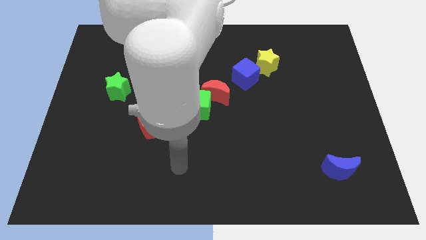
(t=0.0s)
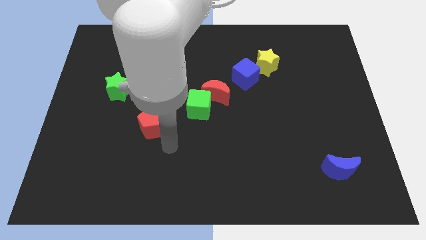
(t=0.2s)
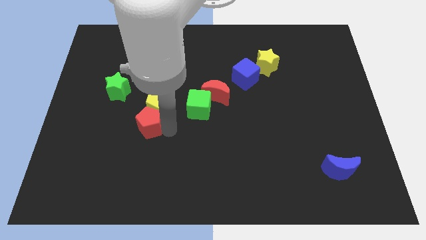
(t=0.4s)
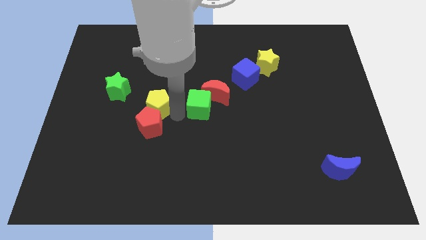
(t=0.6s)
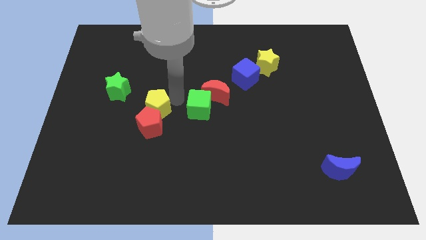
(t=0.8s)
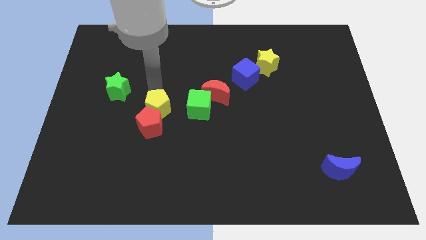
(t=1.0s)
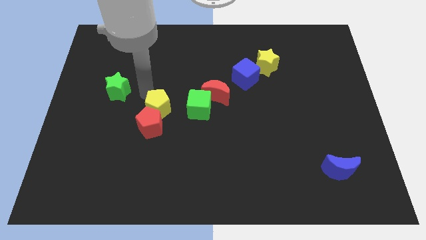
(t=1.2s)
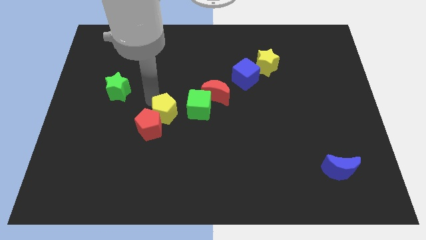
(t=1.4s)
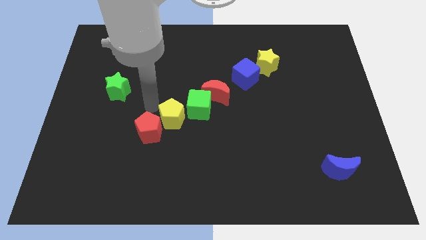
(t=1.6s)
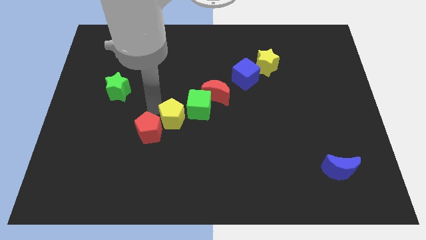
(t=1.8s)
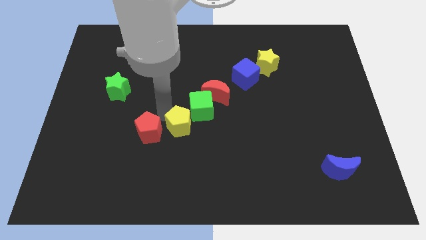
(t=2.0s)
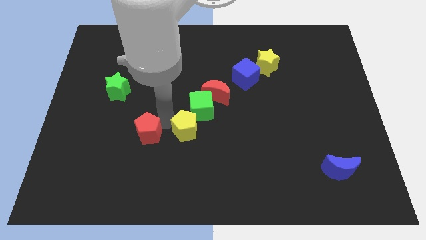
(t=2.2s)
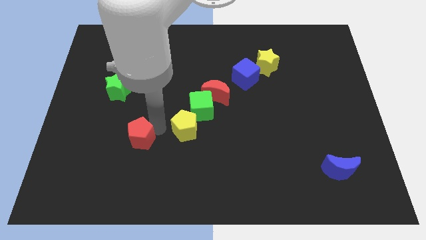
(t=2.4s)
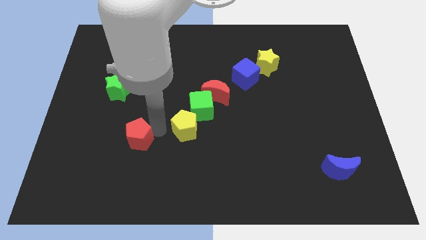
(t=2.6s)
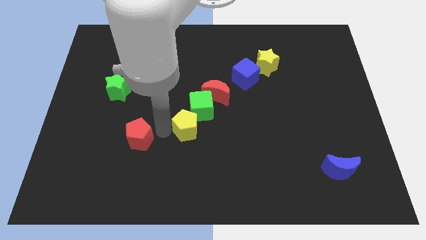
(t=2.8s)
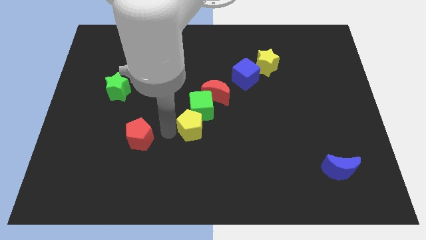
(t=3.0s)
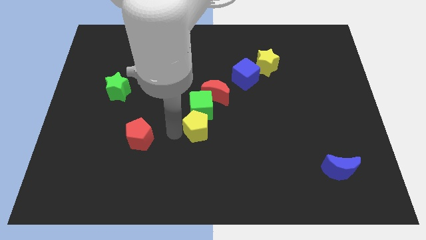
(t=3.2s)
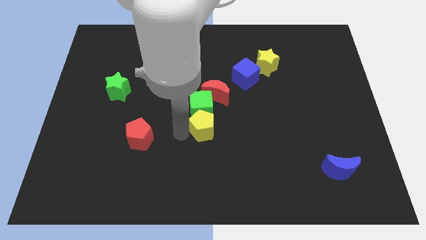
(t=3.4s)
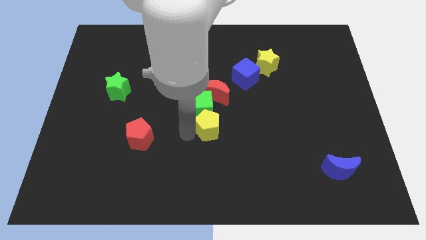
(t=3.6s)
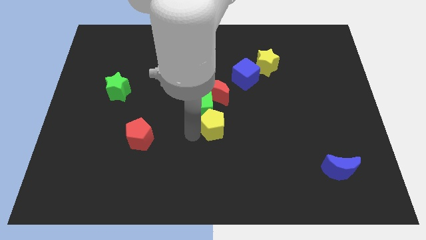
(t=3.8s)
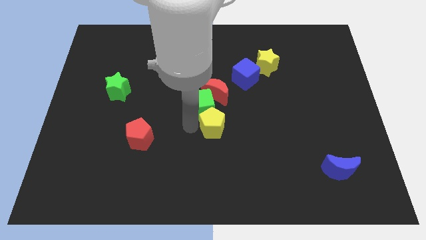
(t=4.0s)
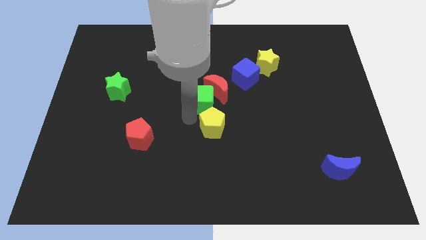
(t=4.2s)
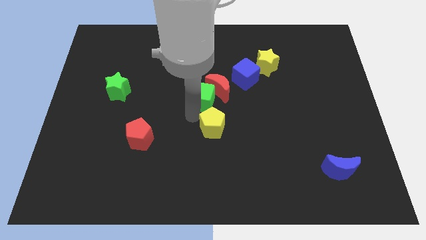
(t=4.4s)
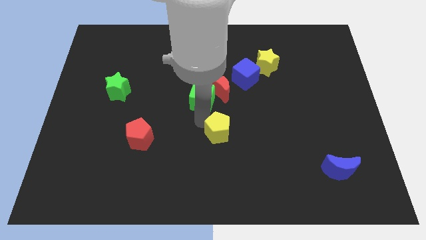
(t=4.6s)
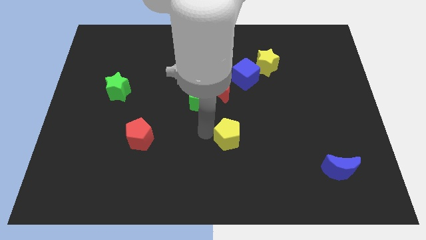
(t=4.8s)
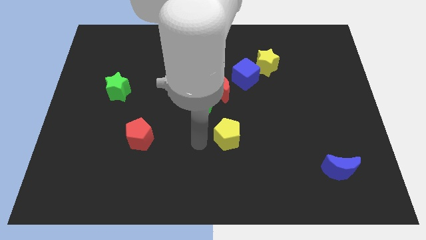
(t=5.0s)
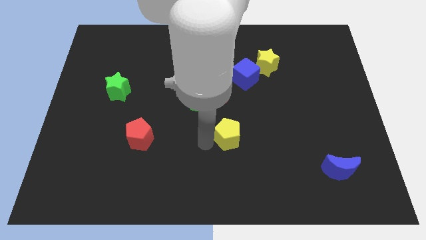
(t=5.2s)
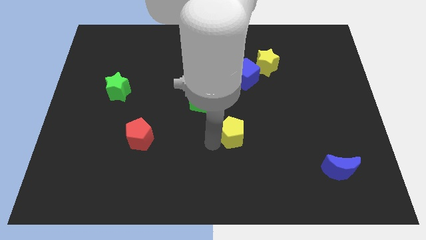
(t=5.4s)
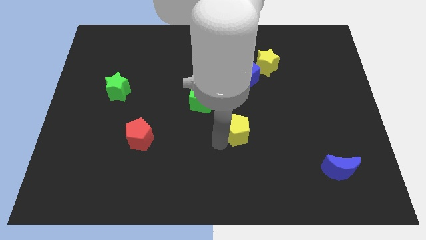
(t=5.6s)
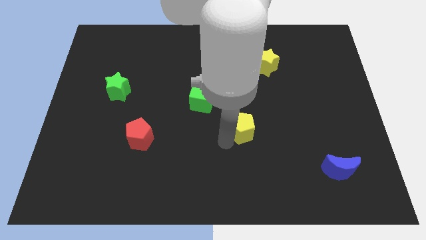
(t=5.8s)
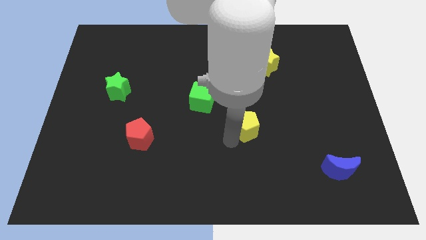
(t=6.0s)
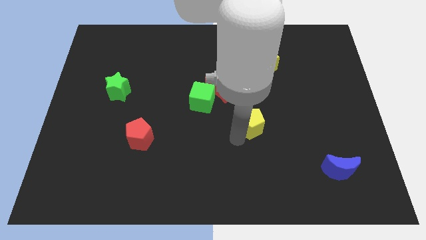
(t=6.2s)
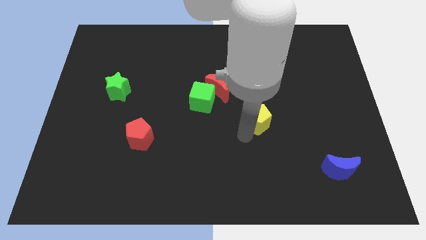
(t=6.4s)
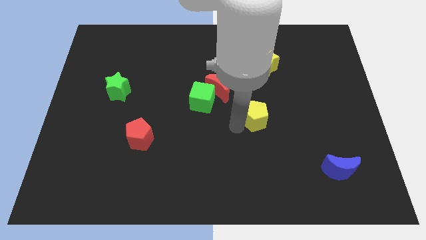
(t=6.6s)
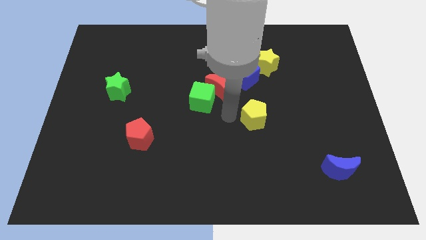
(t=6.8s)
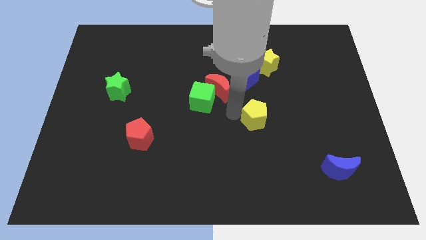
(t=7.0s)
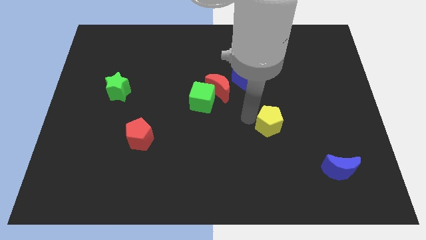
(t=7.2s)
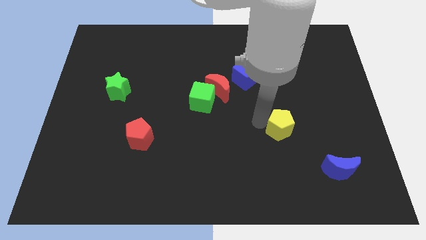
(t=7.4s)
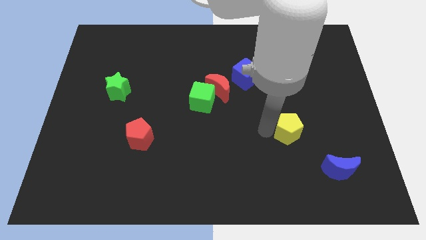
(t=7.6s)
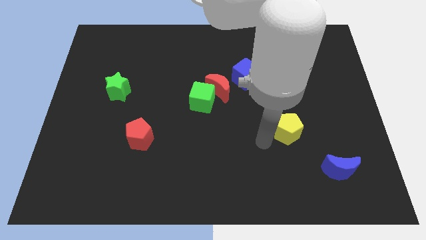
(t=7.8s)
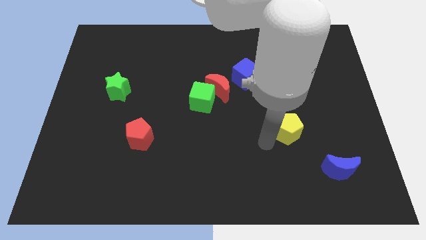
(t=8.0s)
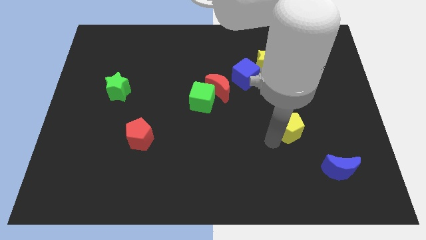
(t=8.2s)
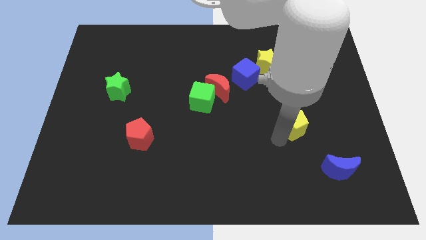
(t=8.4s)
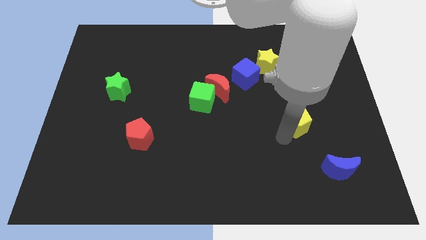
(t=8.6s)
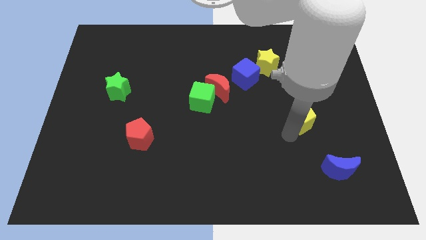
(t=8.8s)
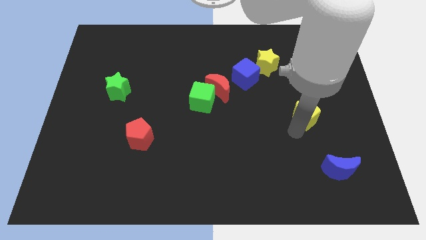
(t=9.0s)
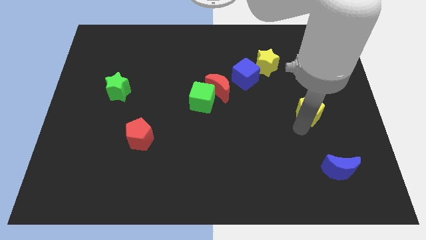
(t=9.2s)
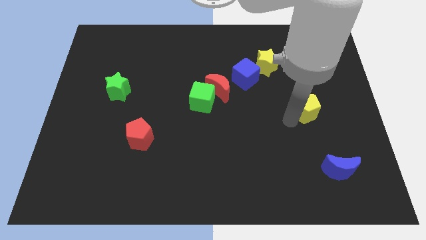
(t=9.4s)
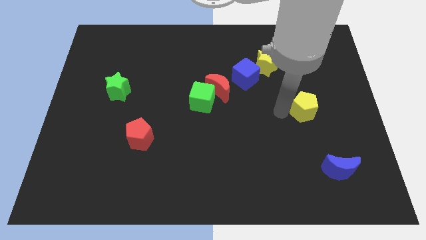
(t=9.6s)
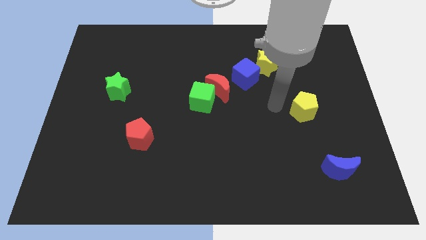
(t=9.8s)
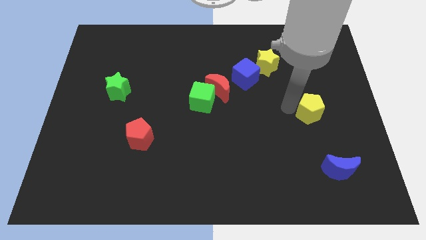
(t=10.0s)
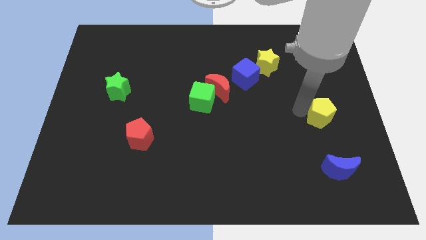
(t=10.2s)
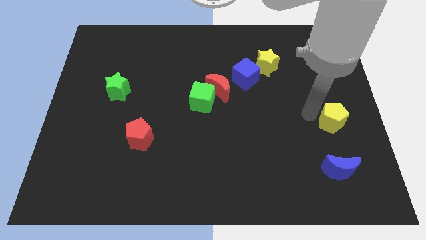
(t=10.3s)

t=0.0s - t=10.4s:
slide the yellow pentagon to the center right

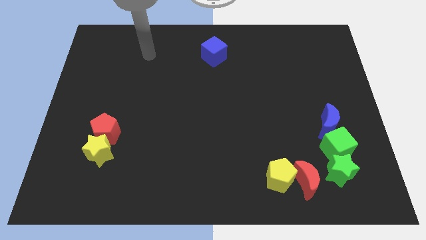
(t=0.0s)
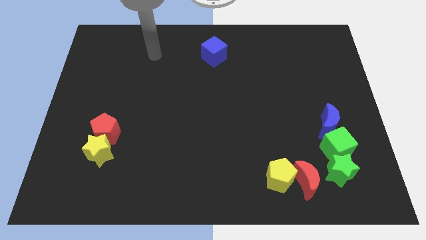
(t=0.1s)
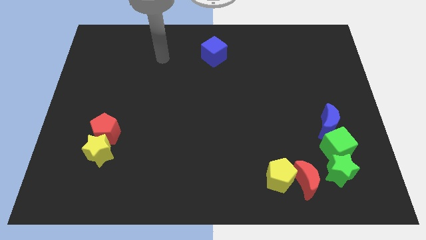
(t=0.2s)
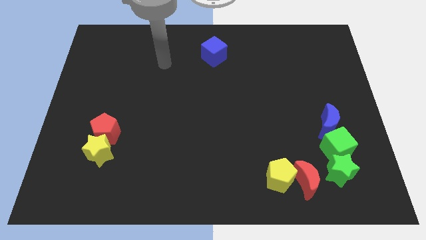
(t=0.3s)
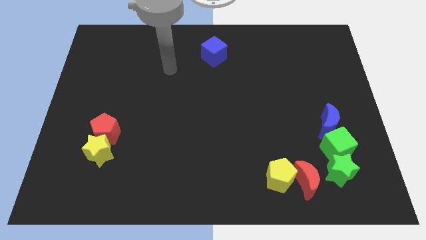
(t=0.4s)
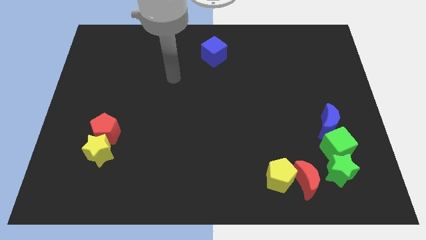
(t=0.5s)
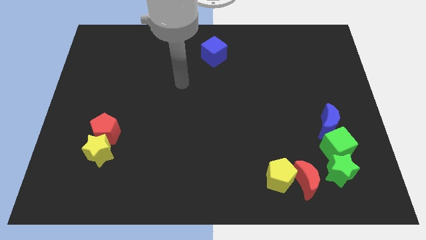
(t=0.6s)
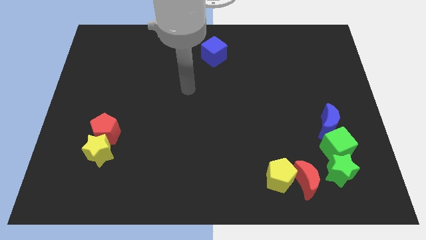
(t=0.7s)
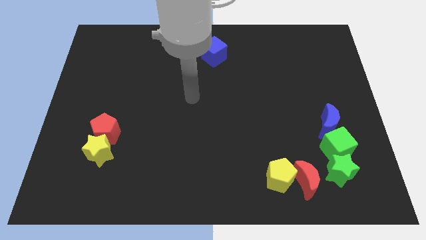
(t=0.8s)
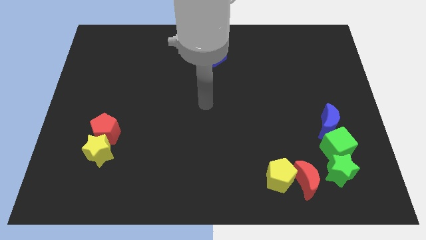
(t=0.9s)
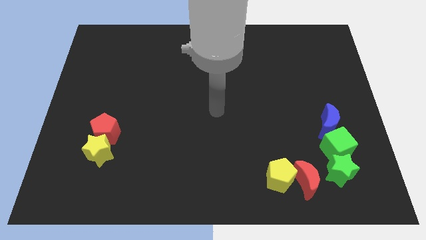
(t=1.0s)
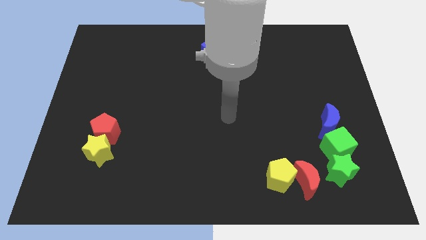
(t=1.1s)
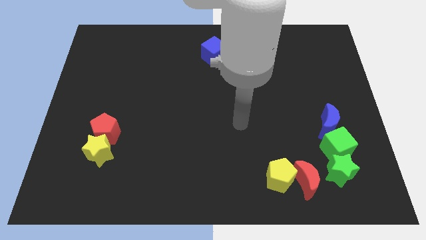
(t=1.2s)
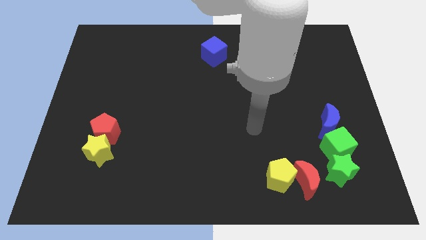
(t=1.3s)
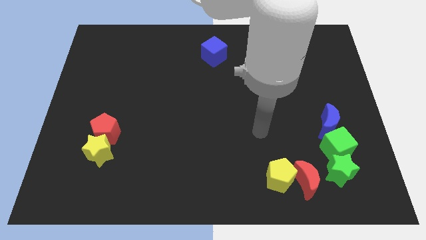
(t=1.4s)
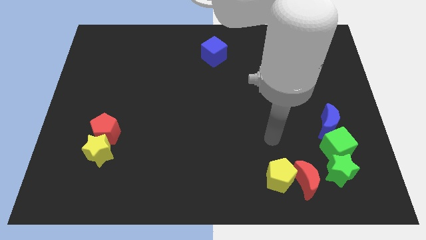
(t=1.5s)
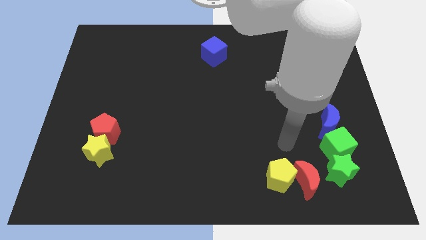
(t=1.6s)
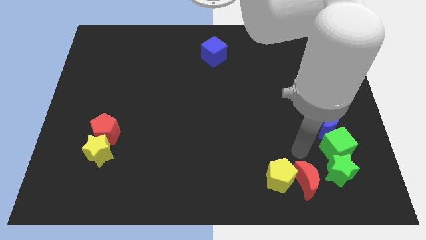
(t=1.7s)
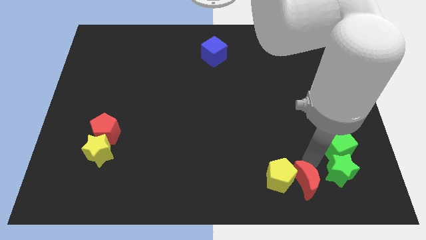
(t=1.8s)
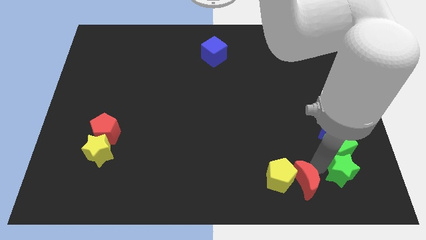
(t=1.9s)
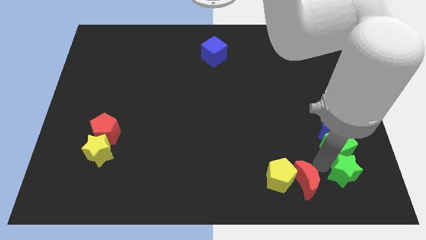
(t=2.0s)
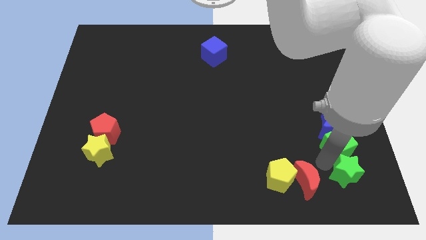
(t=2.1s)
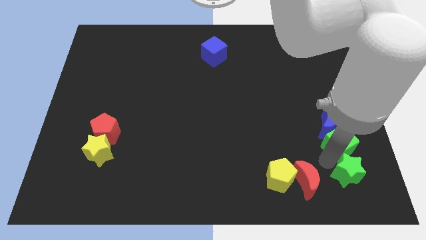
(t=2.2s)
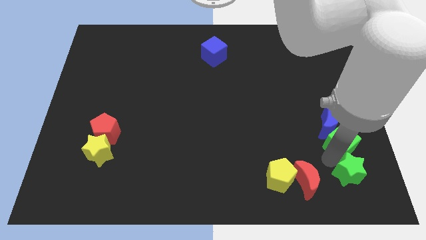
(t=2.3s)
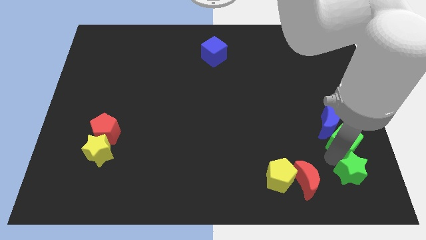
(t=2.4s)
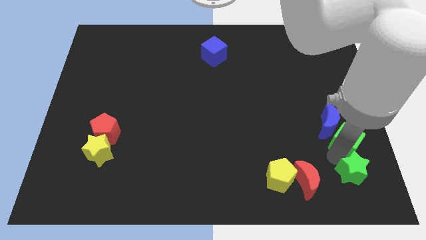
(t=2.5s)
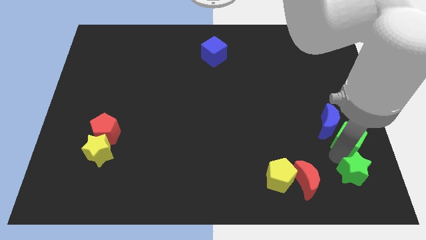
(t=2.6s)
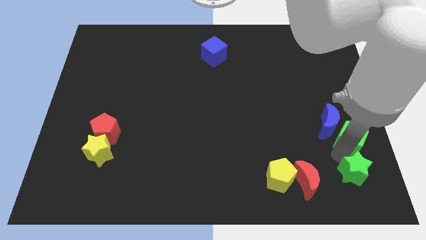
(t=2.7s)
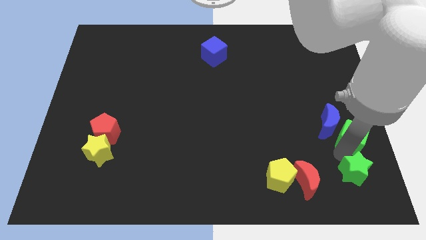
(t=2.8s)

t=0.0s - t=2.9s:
move the green cube to the right side of the board
